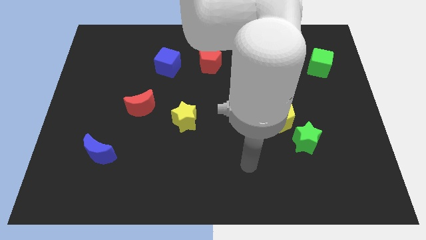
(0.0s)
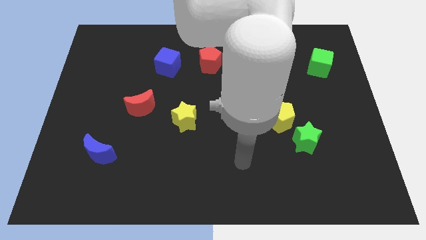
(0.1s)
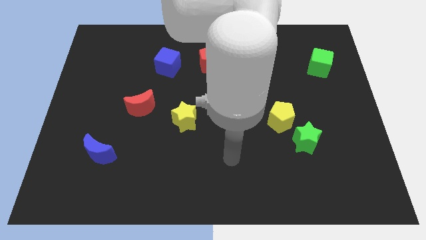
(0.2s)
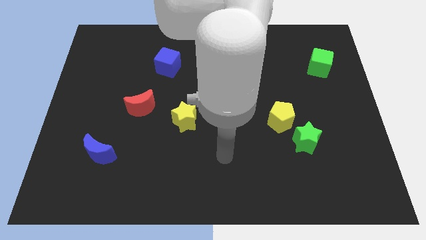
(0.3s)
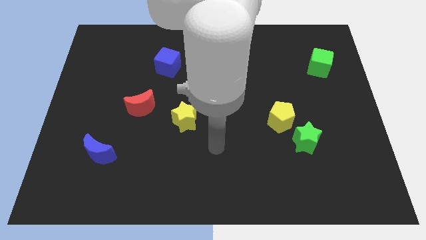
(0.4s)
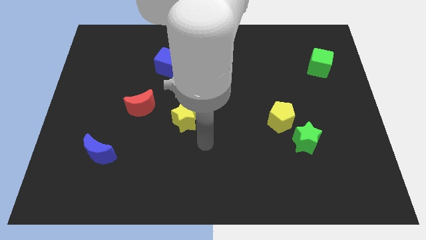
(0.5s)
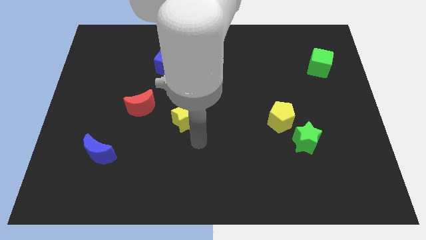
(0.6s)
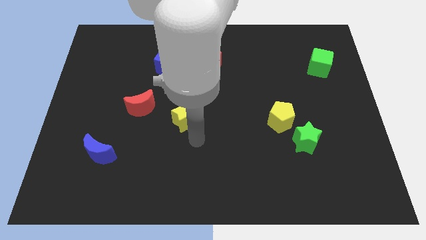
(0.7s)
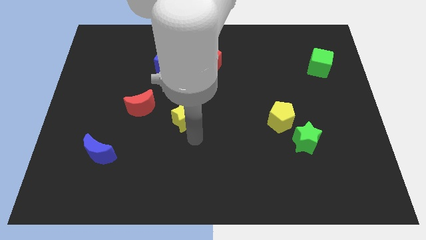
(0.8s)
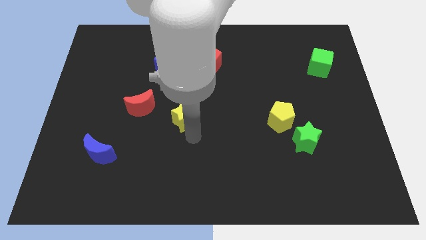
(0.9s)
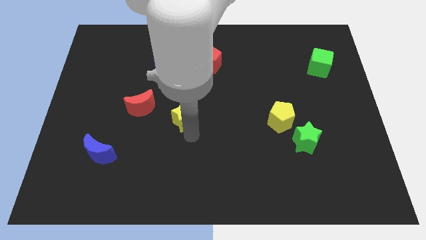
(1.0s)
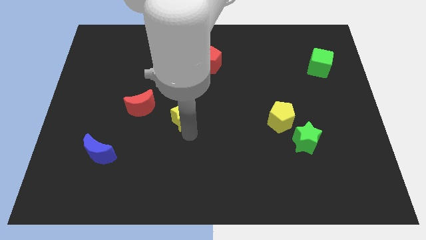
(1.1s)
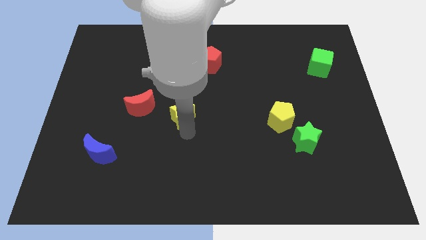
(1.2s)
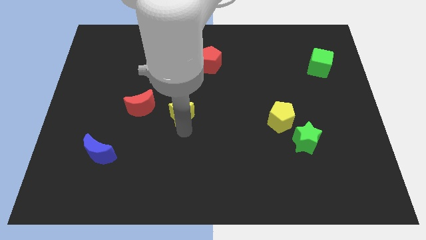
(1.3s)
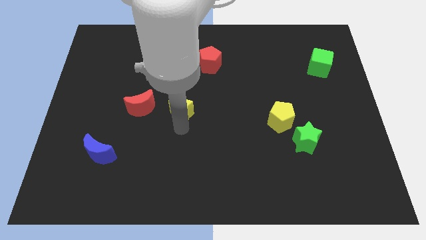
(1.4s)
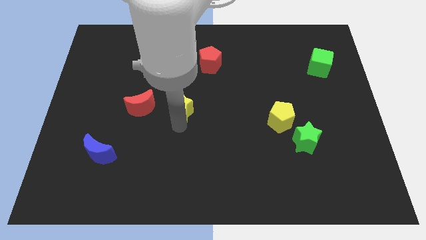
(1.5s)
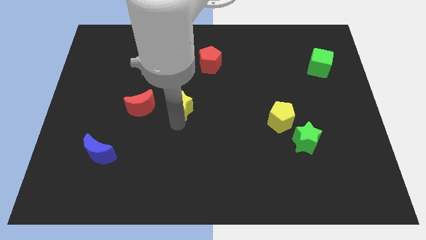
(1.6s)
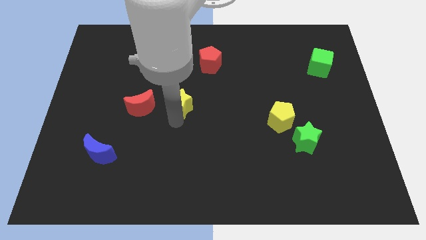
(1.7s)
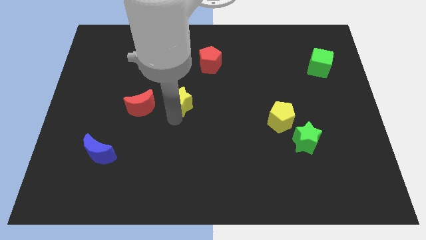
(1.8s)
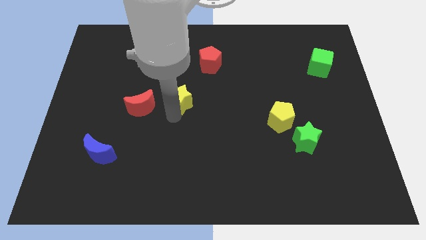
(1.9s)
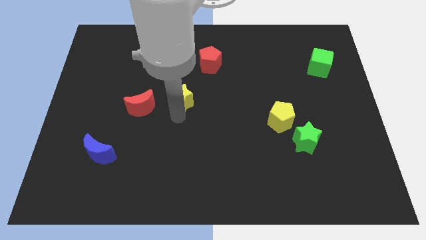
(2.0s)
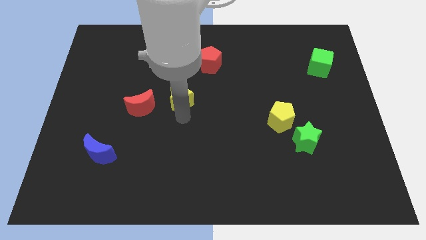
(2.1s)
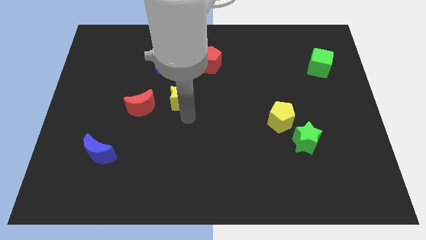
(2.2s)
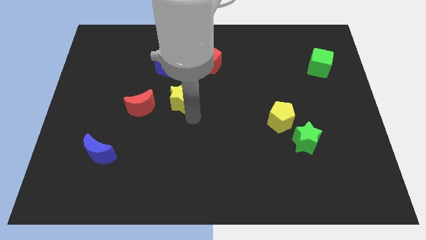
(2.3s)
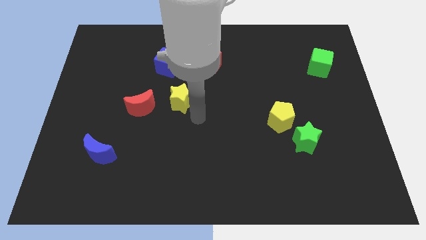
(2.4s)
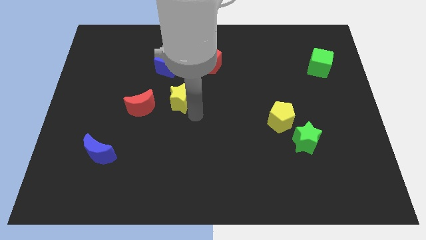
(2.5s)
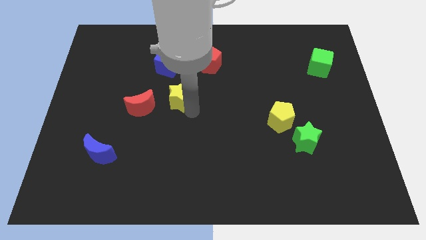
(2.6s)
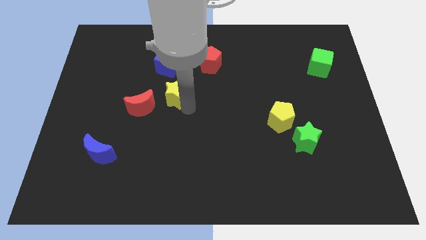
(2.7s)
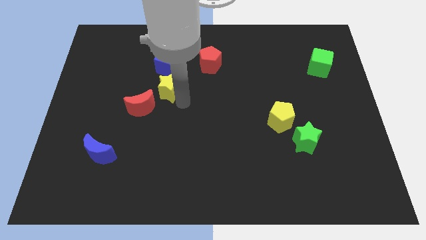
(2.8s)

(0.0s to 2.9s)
push the yellow star up and to the left slightly

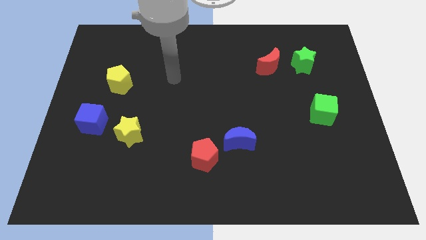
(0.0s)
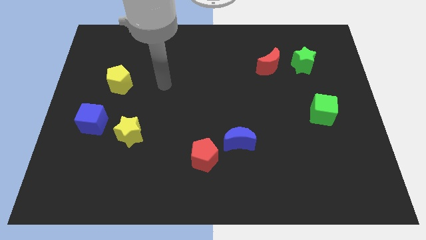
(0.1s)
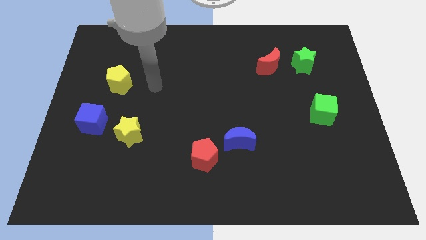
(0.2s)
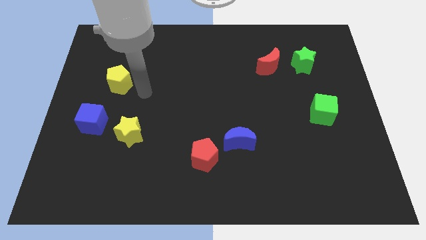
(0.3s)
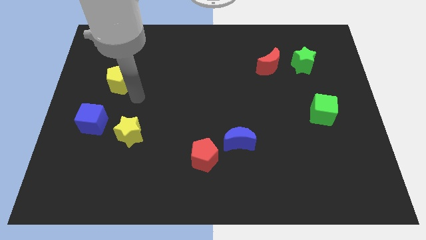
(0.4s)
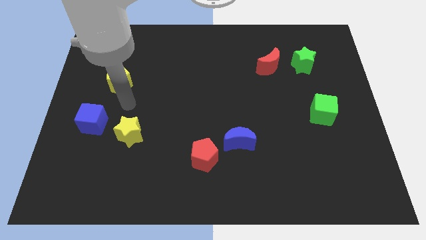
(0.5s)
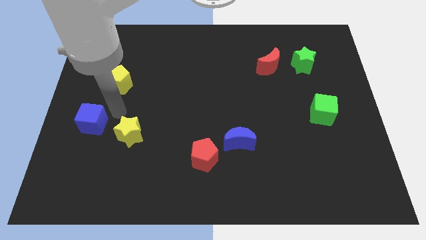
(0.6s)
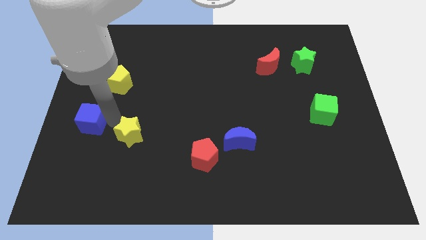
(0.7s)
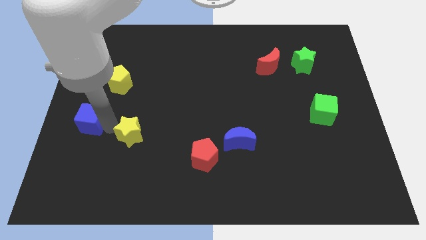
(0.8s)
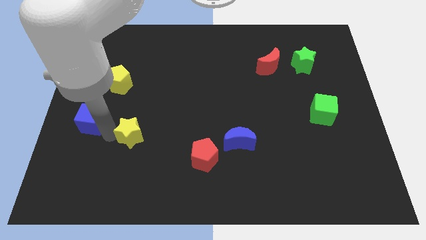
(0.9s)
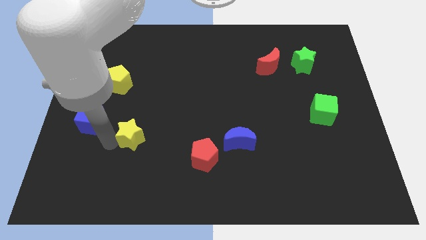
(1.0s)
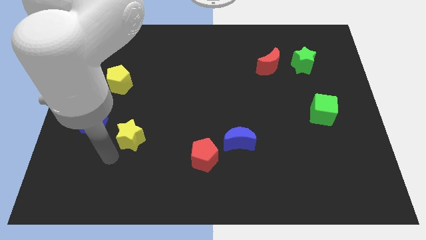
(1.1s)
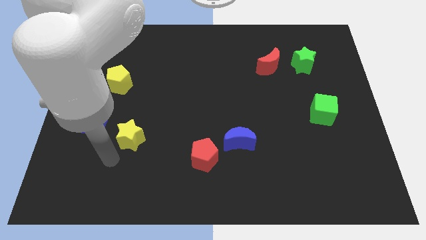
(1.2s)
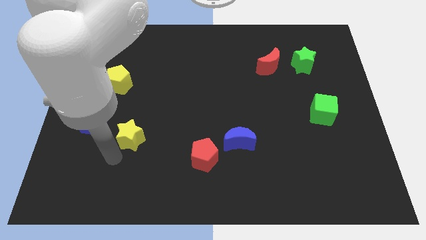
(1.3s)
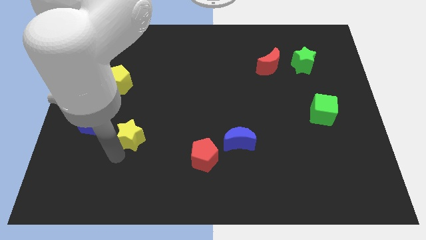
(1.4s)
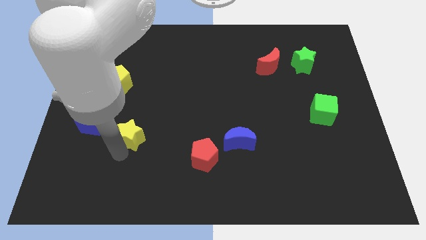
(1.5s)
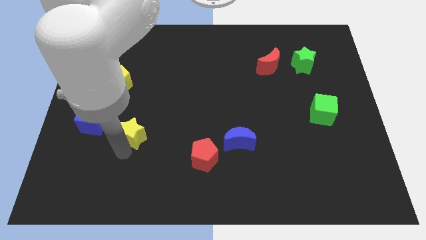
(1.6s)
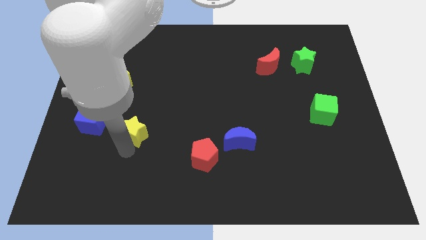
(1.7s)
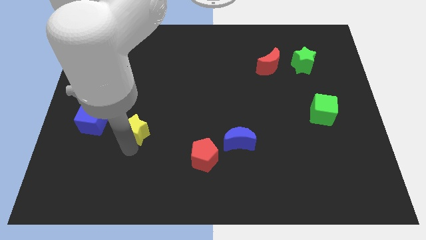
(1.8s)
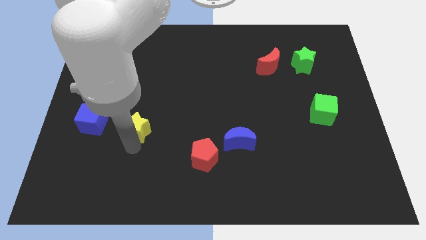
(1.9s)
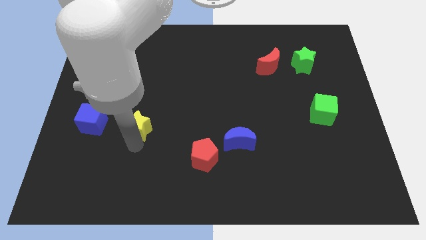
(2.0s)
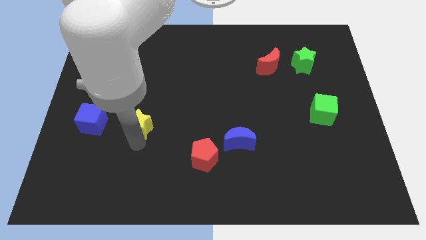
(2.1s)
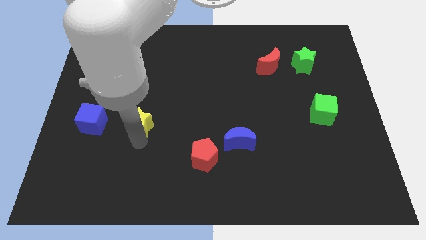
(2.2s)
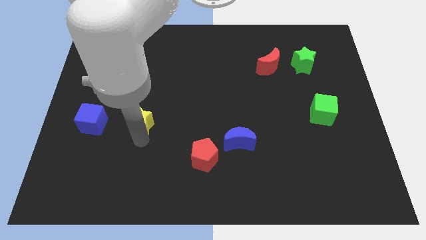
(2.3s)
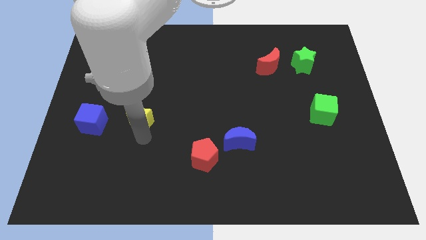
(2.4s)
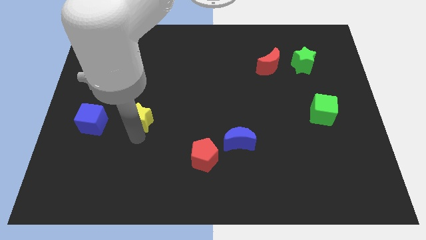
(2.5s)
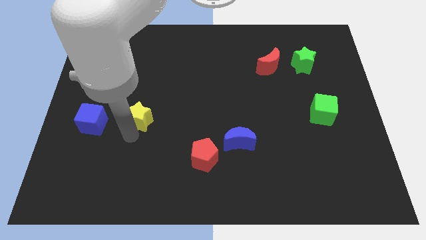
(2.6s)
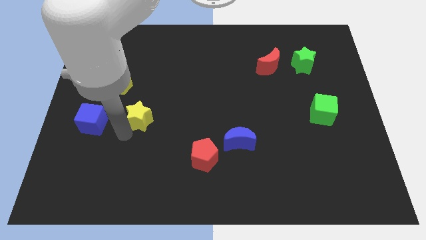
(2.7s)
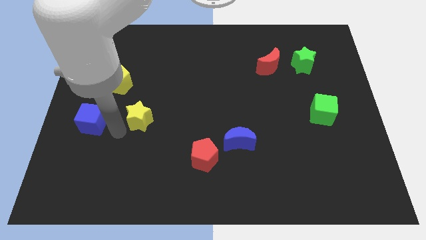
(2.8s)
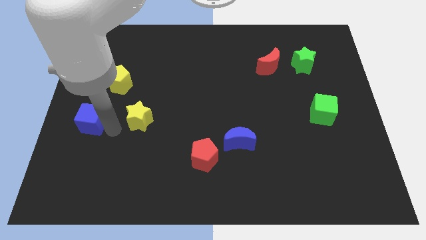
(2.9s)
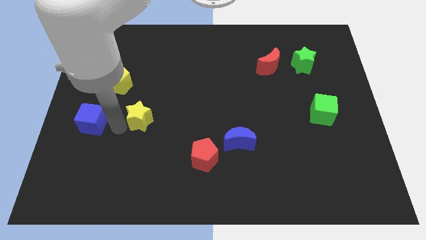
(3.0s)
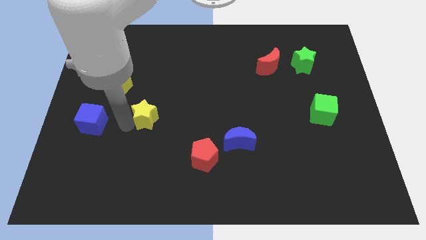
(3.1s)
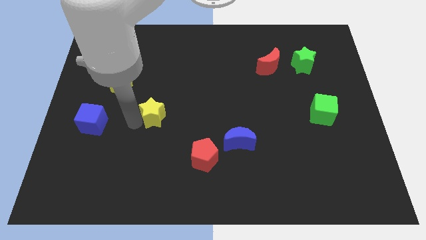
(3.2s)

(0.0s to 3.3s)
push the yellow star a bit upwards and to the right diagonally

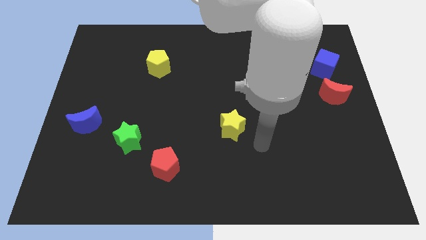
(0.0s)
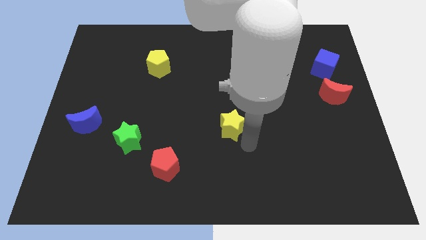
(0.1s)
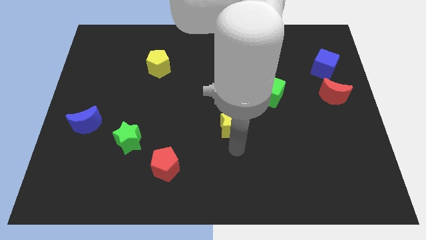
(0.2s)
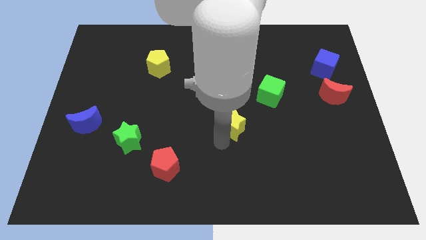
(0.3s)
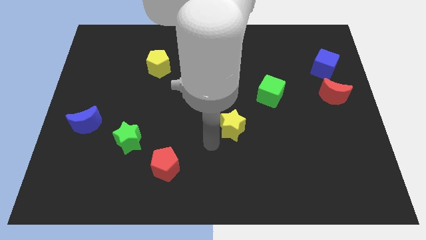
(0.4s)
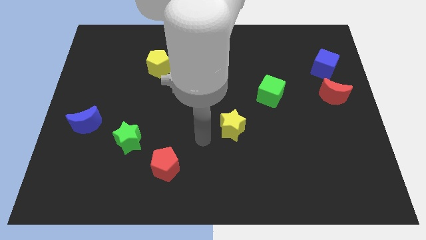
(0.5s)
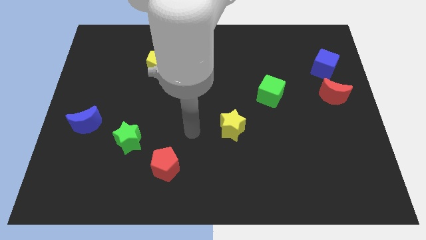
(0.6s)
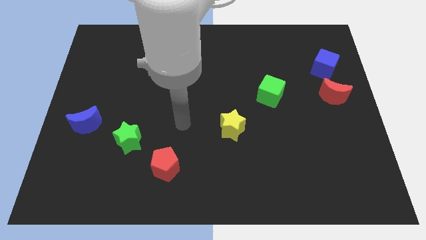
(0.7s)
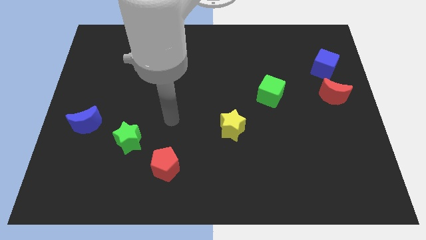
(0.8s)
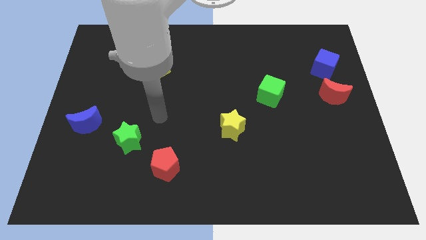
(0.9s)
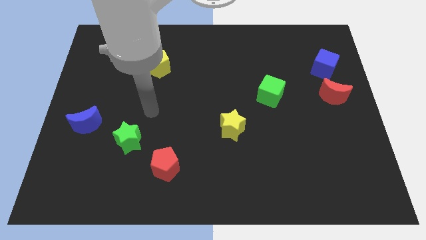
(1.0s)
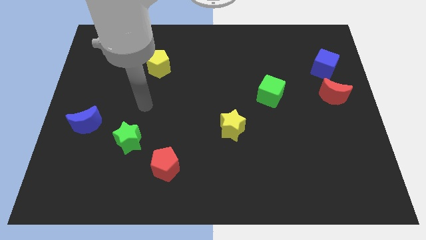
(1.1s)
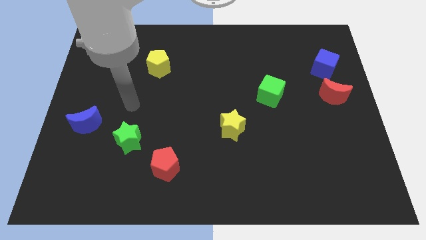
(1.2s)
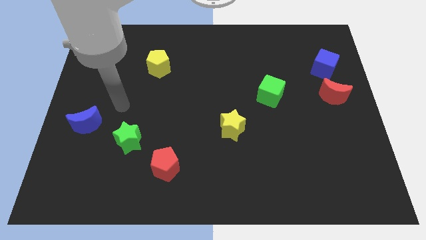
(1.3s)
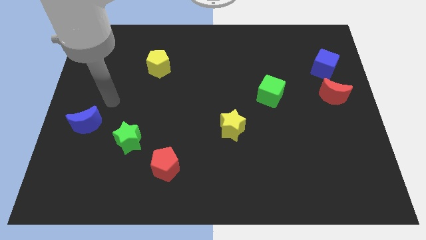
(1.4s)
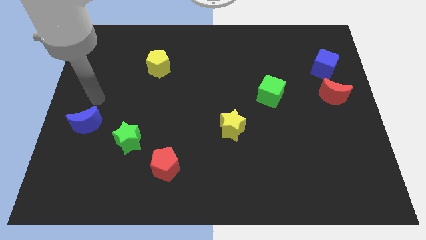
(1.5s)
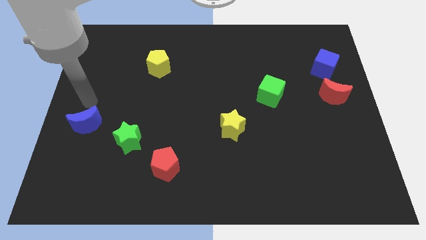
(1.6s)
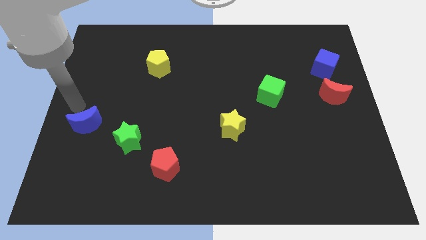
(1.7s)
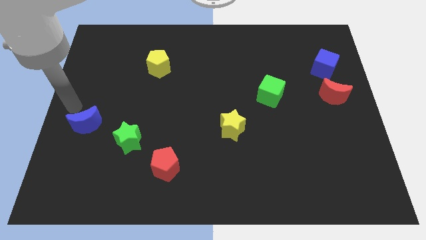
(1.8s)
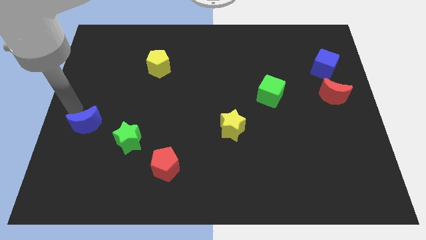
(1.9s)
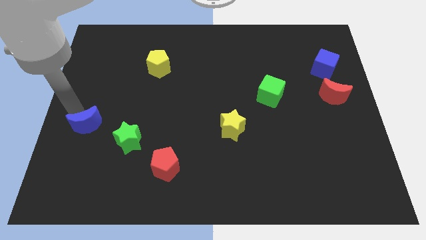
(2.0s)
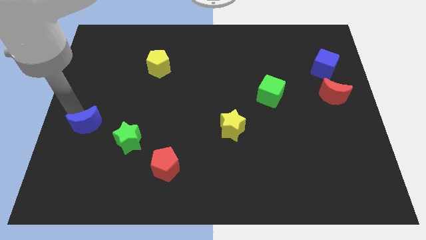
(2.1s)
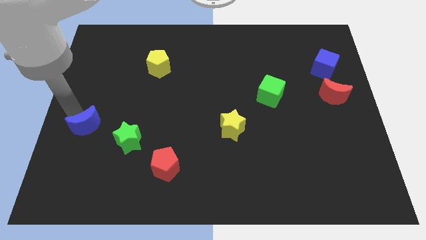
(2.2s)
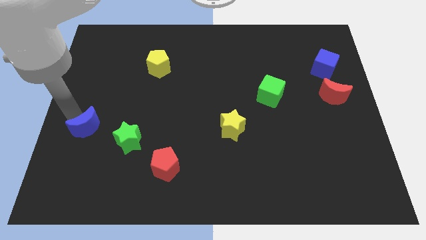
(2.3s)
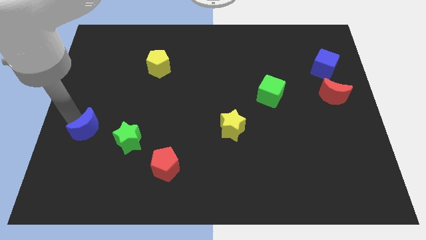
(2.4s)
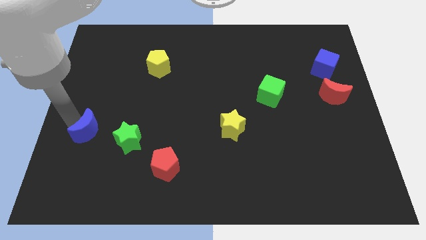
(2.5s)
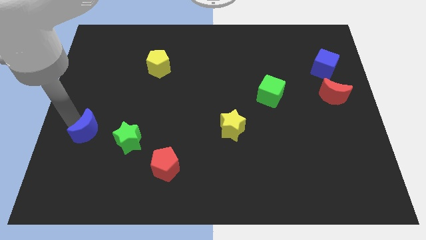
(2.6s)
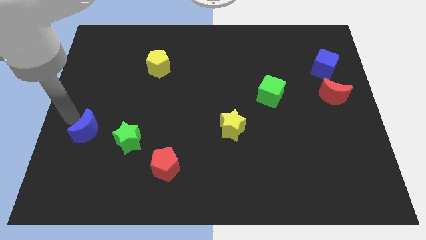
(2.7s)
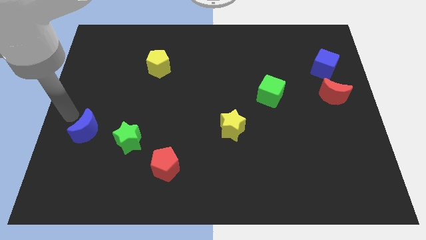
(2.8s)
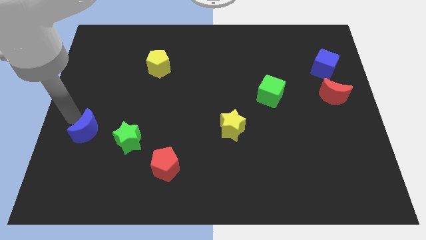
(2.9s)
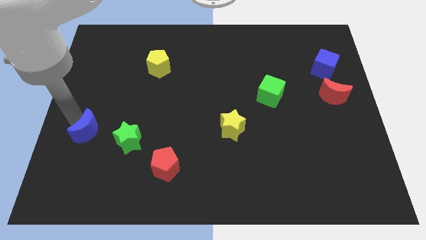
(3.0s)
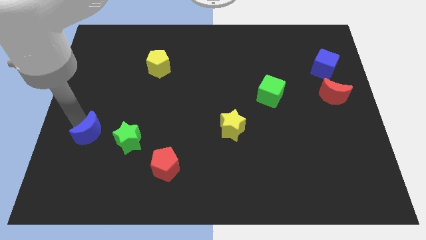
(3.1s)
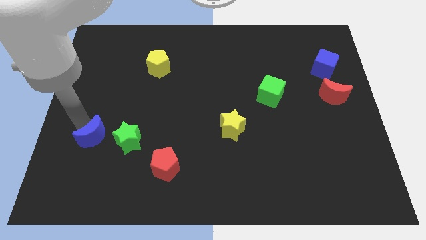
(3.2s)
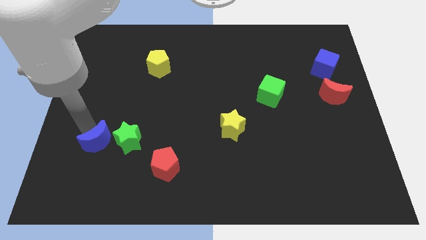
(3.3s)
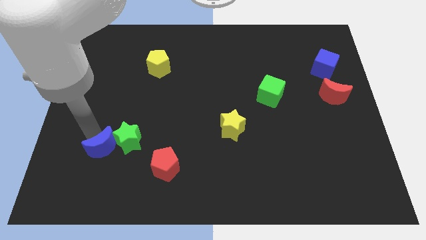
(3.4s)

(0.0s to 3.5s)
move the blue moon a little bit downwards and right
